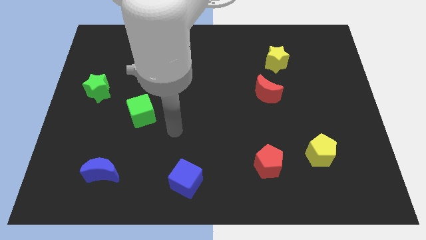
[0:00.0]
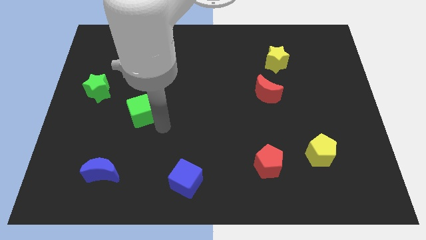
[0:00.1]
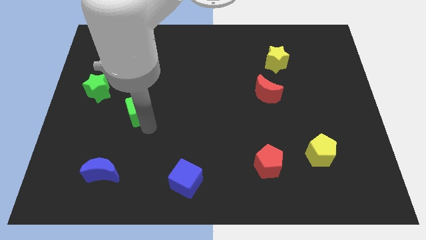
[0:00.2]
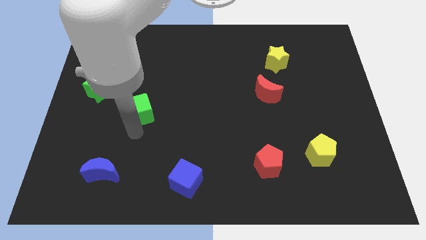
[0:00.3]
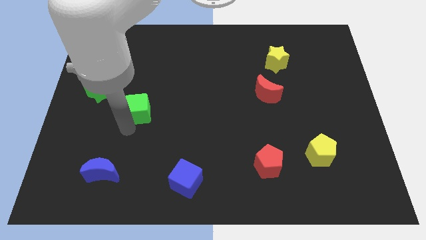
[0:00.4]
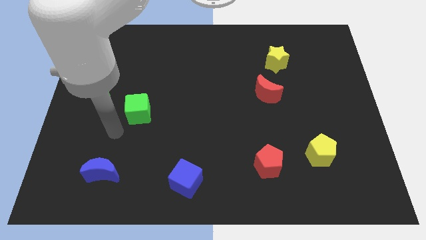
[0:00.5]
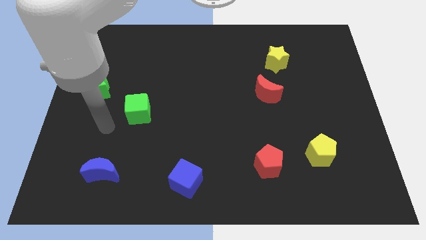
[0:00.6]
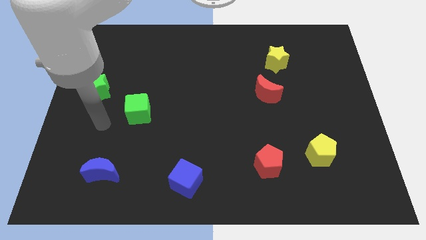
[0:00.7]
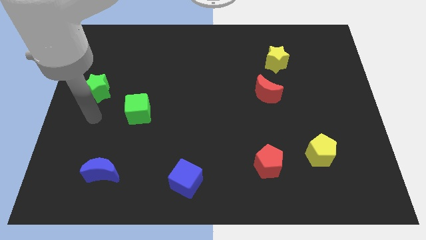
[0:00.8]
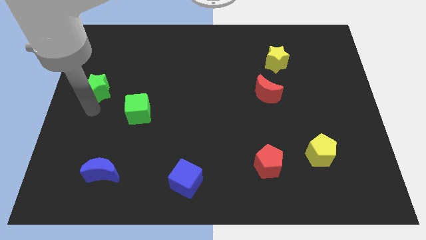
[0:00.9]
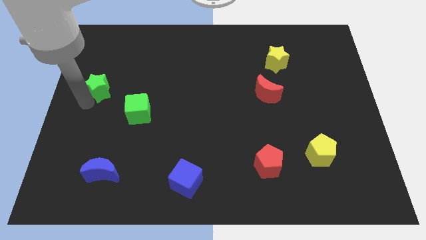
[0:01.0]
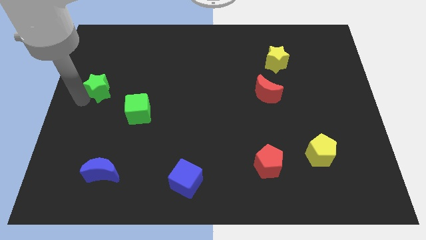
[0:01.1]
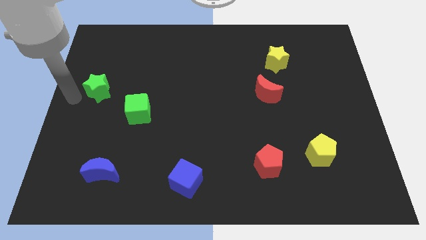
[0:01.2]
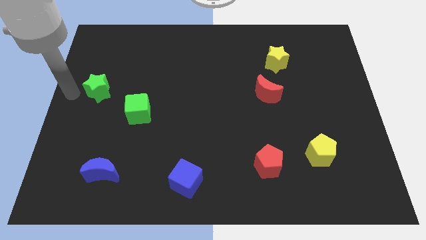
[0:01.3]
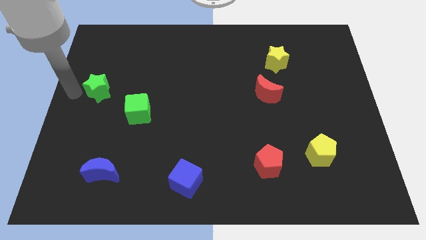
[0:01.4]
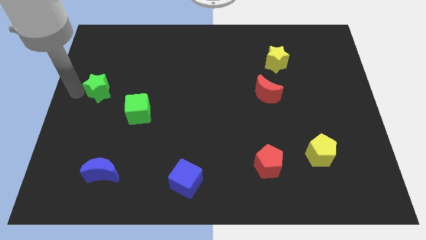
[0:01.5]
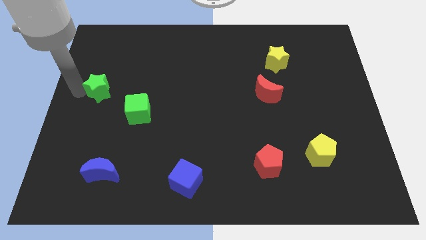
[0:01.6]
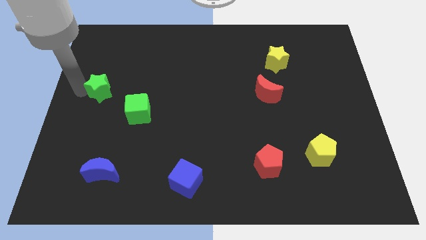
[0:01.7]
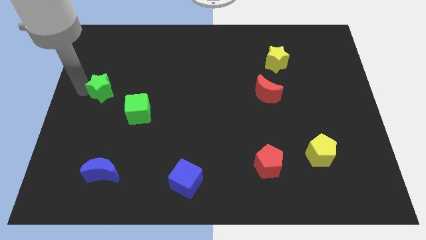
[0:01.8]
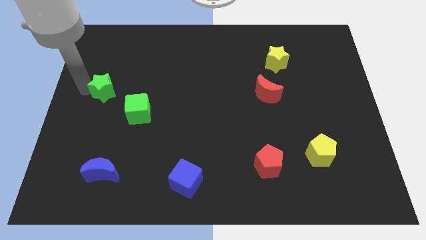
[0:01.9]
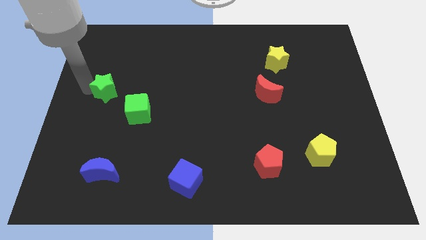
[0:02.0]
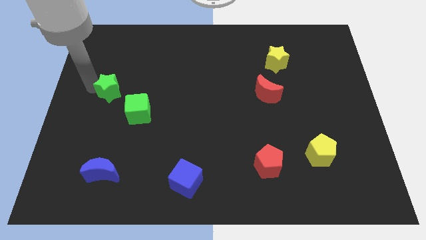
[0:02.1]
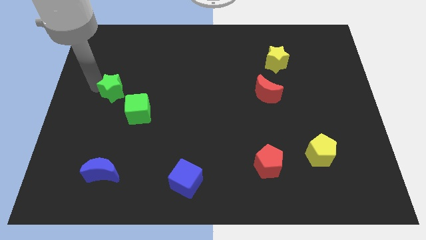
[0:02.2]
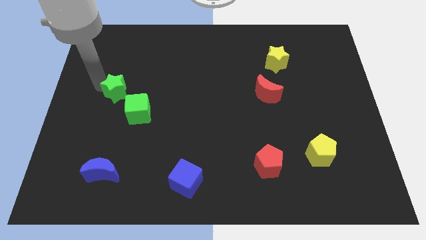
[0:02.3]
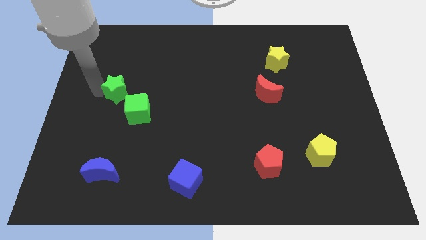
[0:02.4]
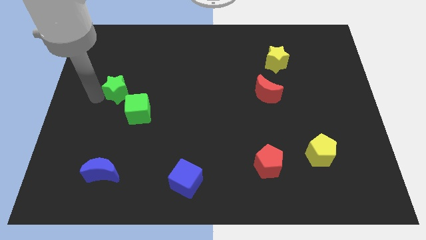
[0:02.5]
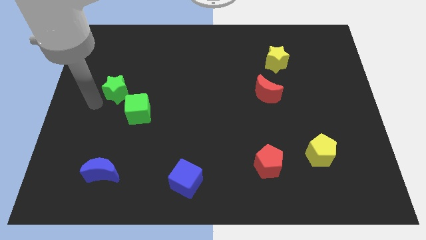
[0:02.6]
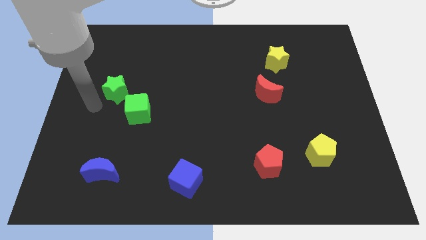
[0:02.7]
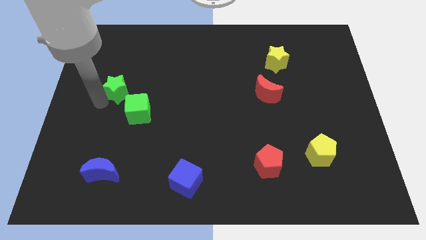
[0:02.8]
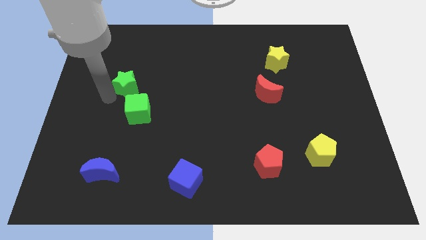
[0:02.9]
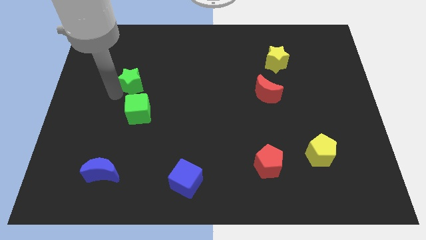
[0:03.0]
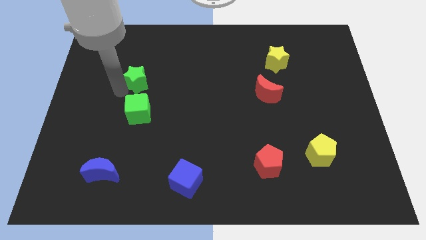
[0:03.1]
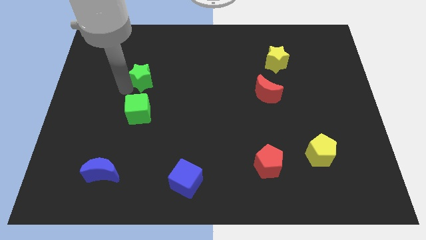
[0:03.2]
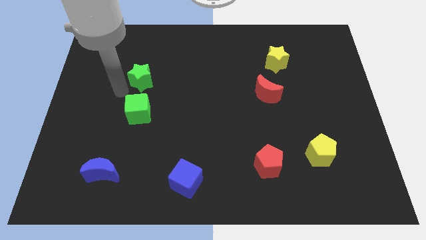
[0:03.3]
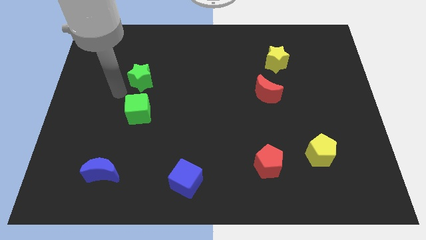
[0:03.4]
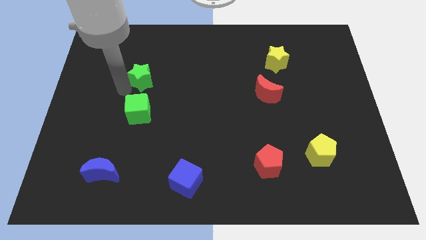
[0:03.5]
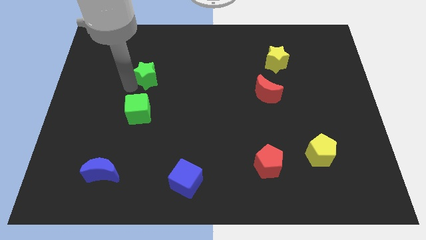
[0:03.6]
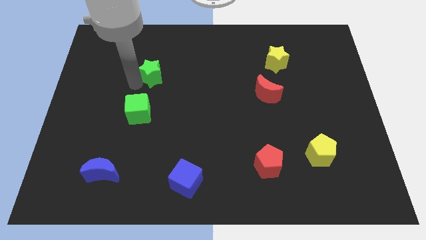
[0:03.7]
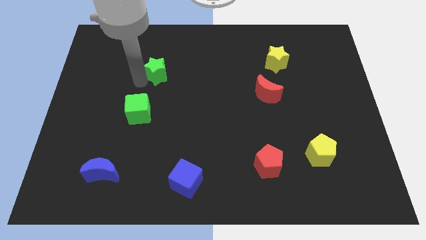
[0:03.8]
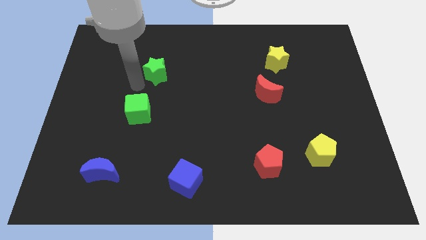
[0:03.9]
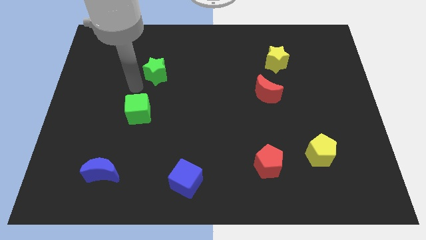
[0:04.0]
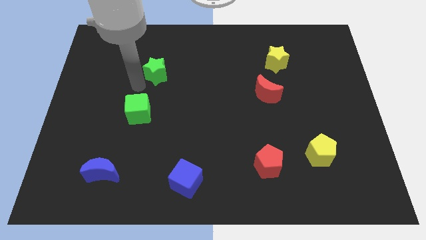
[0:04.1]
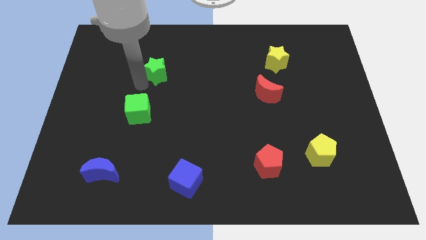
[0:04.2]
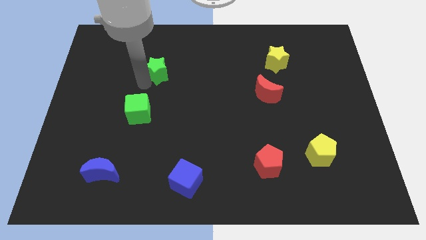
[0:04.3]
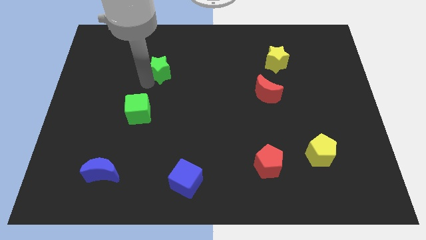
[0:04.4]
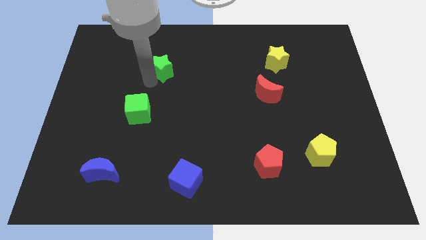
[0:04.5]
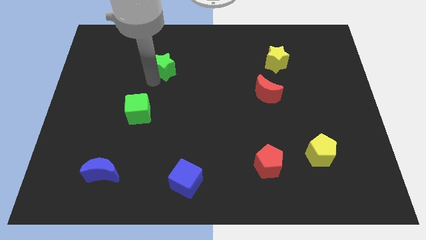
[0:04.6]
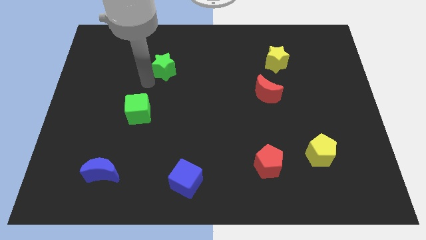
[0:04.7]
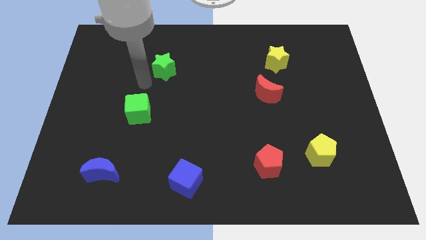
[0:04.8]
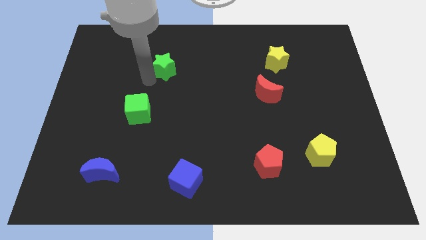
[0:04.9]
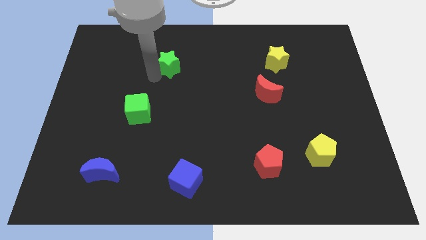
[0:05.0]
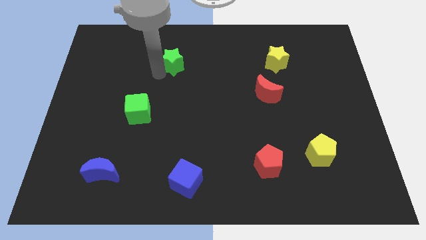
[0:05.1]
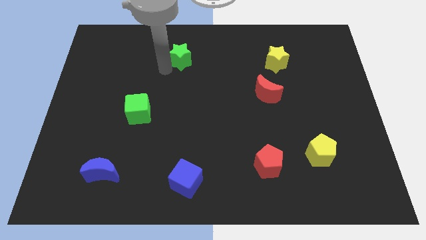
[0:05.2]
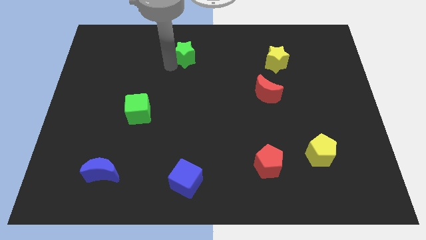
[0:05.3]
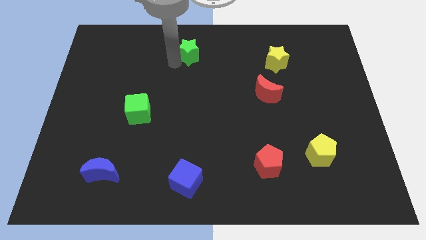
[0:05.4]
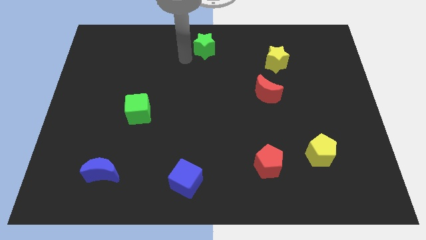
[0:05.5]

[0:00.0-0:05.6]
put the green star to the top side
